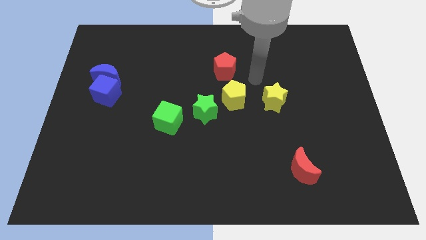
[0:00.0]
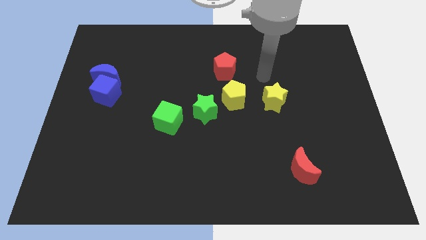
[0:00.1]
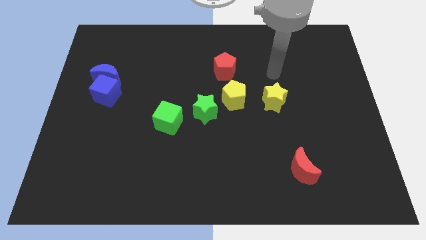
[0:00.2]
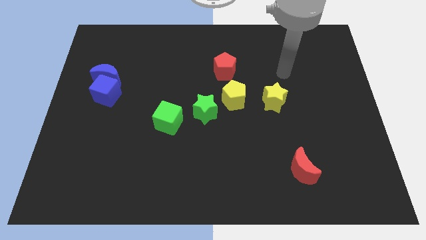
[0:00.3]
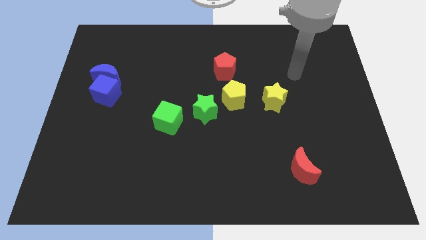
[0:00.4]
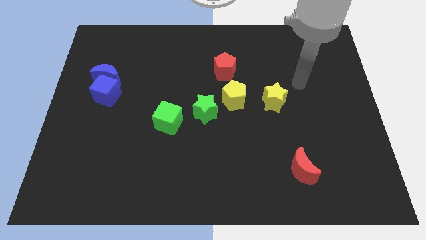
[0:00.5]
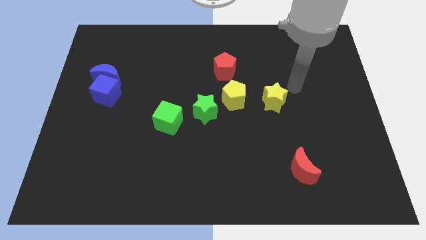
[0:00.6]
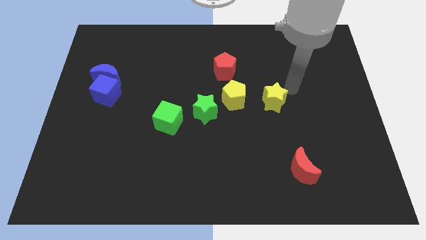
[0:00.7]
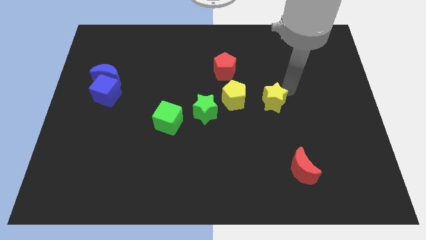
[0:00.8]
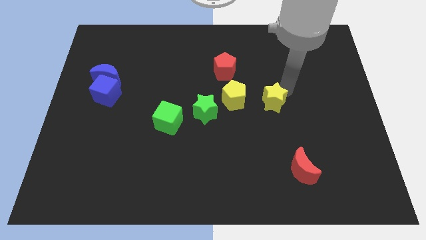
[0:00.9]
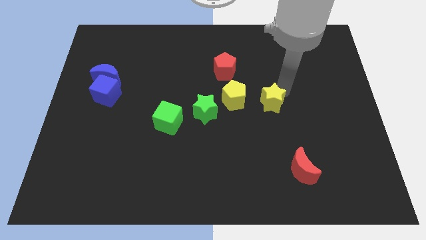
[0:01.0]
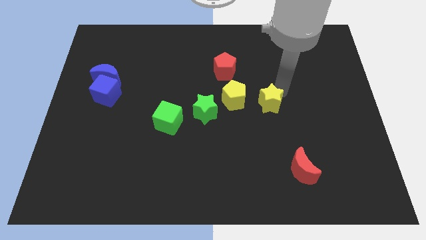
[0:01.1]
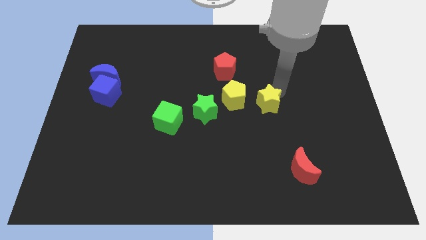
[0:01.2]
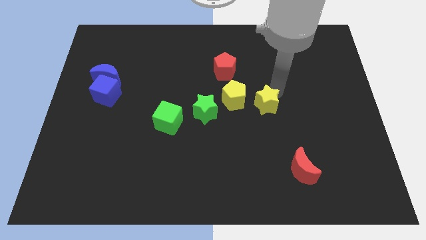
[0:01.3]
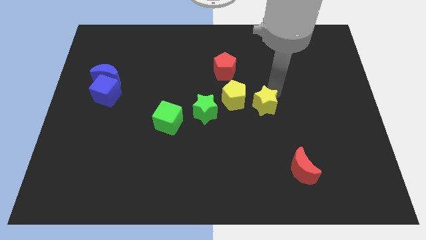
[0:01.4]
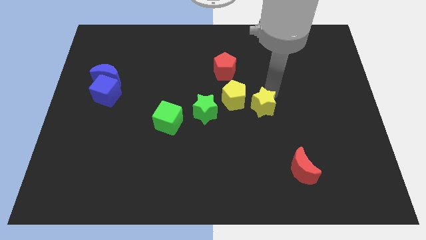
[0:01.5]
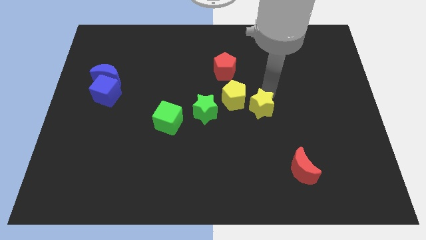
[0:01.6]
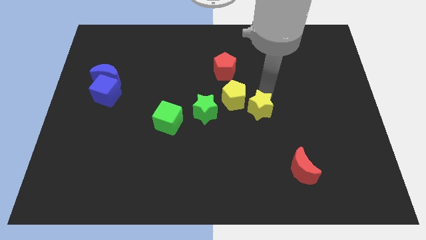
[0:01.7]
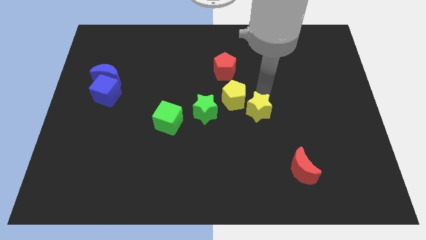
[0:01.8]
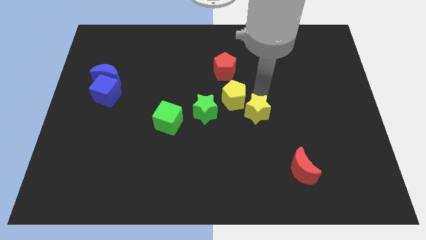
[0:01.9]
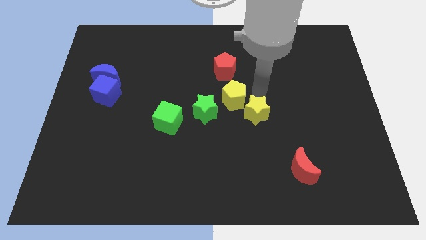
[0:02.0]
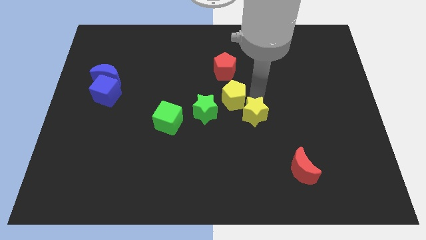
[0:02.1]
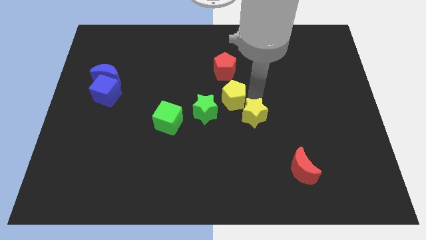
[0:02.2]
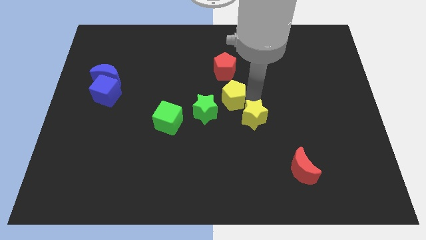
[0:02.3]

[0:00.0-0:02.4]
slightly move the yellow star downwards and then to the left

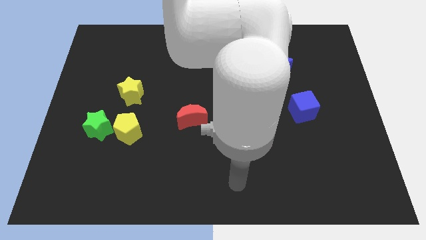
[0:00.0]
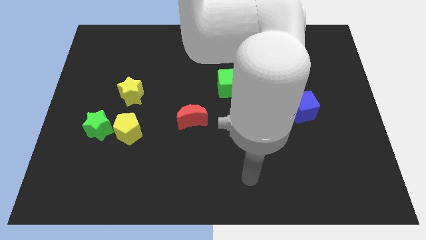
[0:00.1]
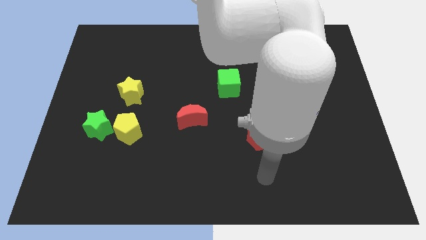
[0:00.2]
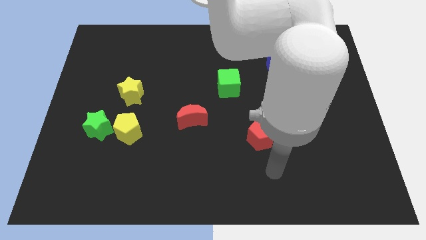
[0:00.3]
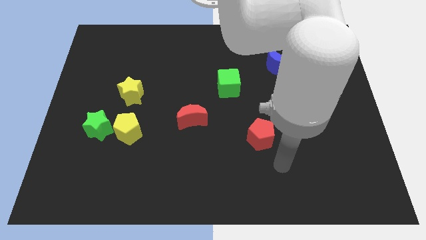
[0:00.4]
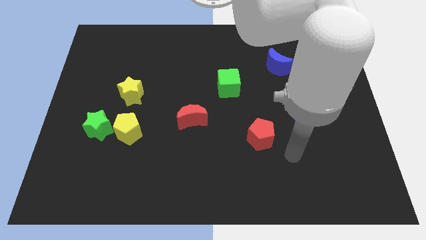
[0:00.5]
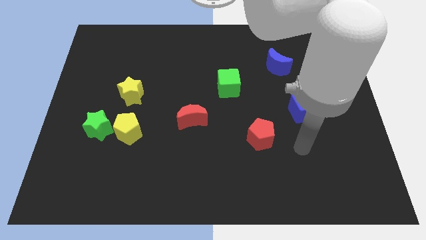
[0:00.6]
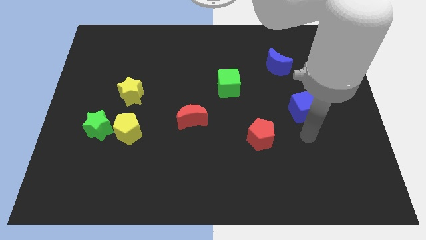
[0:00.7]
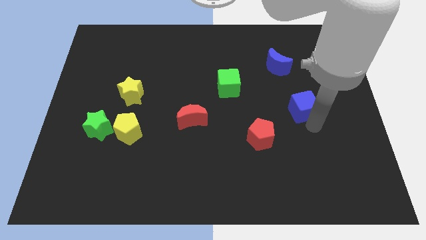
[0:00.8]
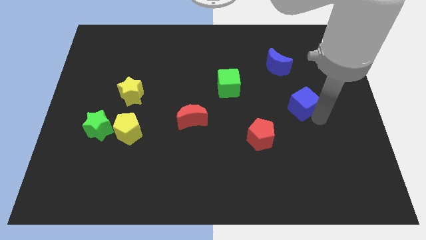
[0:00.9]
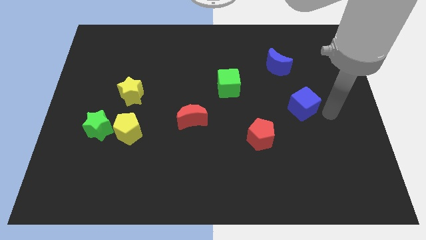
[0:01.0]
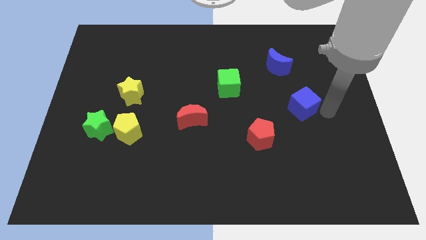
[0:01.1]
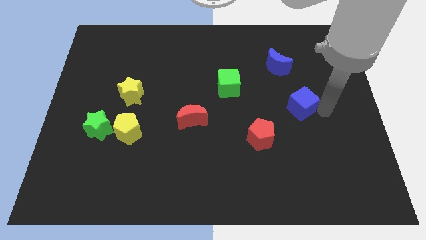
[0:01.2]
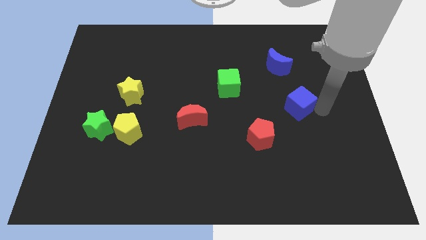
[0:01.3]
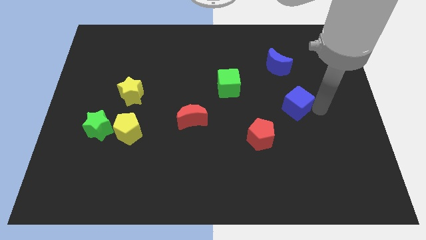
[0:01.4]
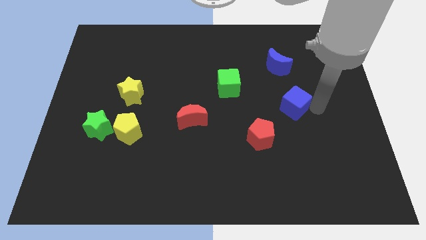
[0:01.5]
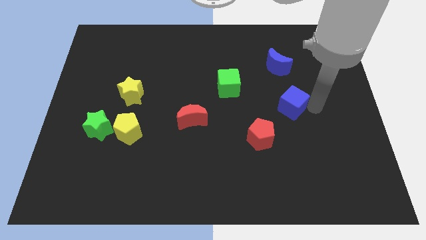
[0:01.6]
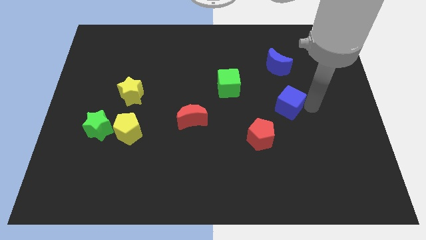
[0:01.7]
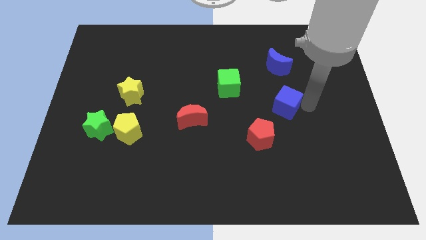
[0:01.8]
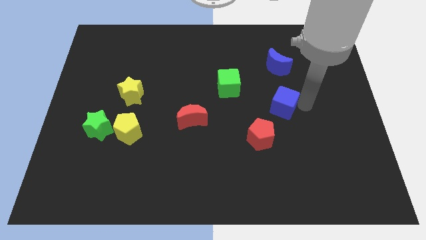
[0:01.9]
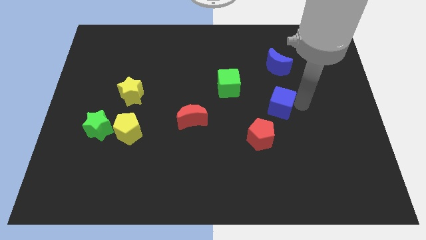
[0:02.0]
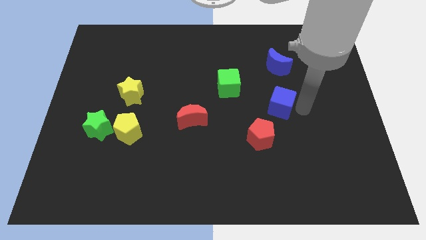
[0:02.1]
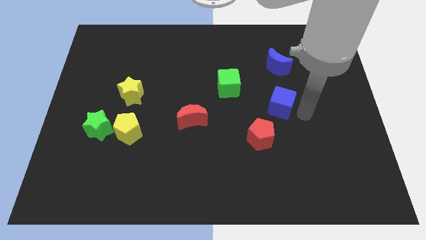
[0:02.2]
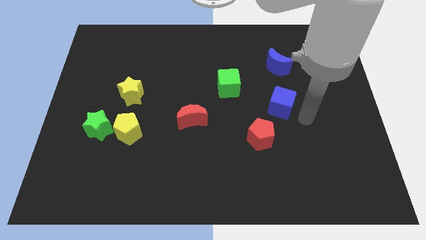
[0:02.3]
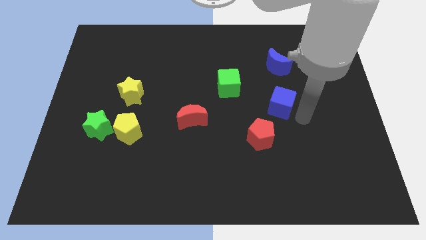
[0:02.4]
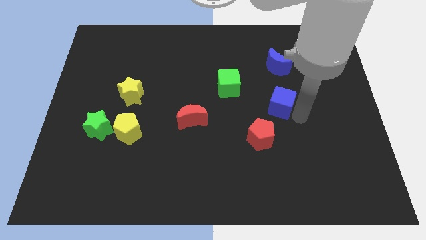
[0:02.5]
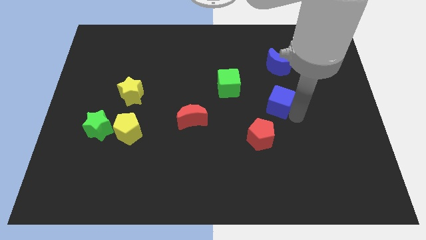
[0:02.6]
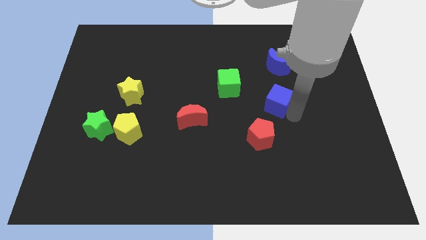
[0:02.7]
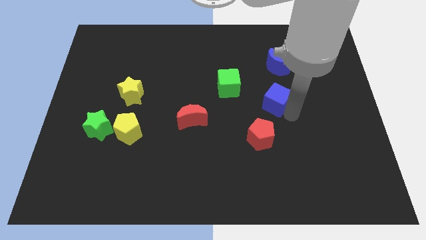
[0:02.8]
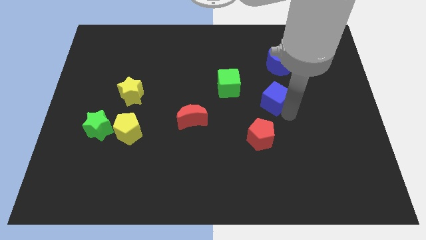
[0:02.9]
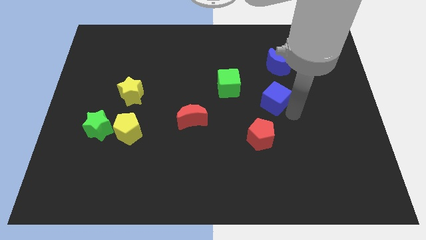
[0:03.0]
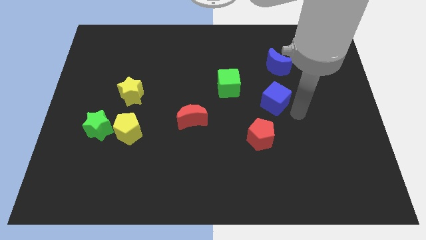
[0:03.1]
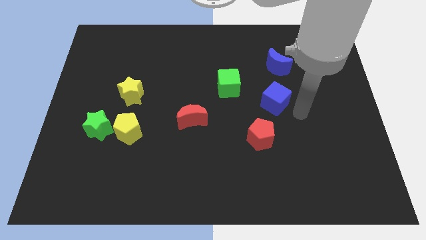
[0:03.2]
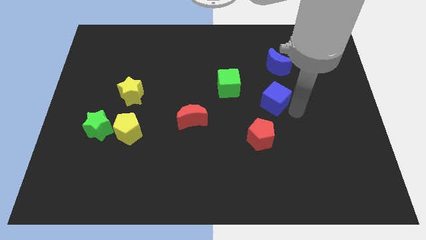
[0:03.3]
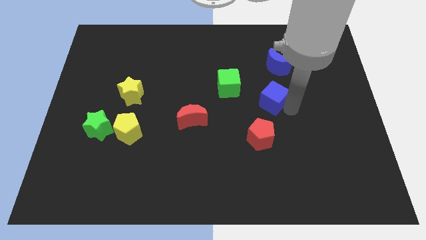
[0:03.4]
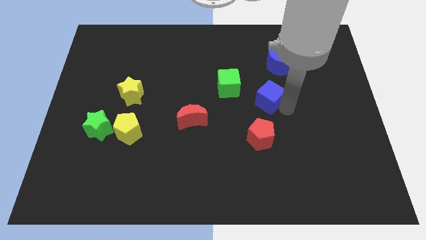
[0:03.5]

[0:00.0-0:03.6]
slightly slide the blue cube upwards and then to the left

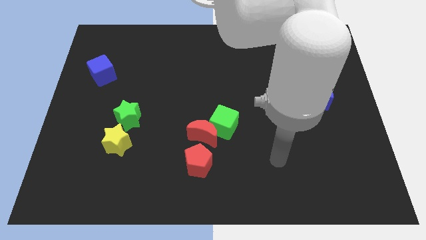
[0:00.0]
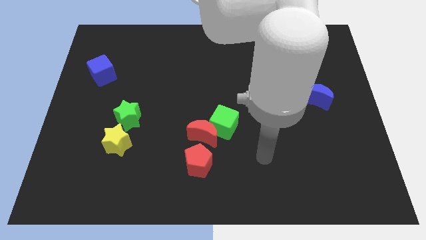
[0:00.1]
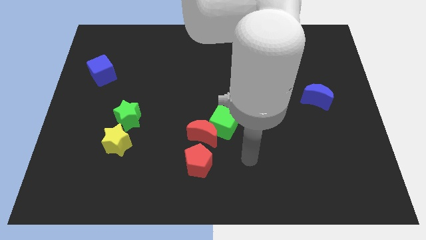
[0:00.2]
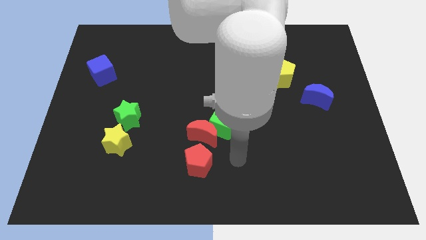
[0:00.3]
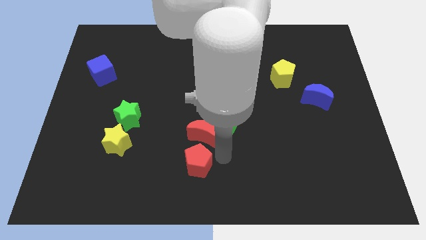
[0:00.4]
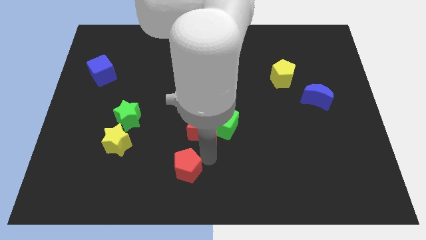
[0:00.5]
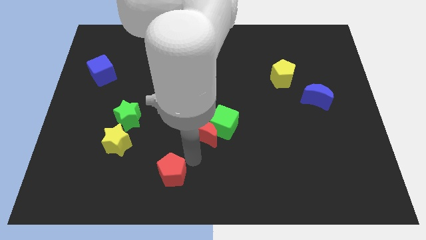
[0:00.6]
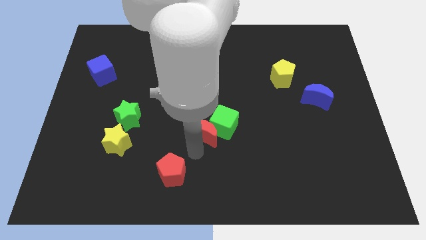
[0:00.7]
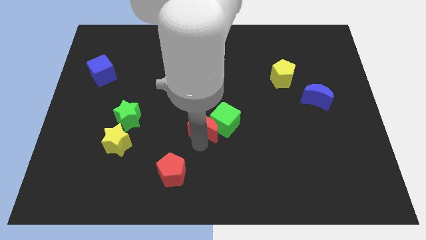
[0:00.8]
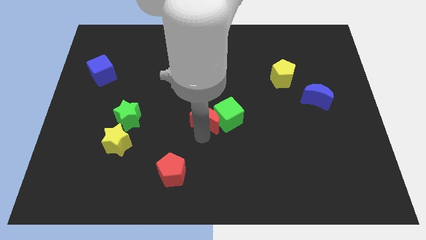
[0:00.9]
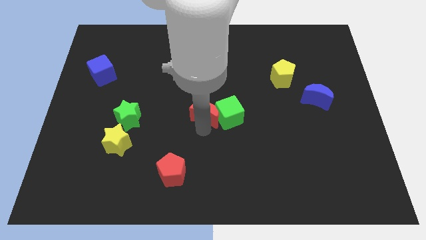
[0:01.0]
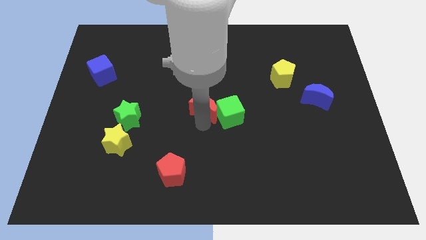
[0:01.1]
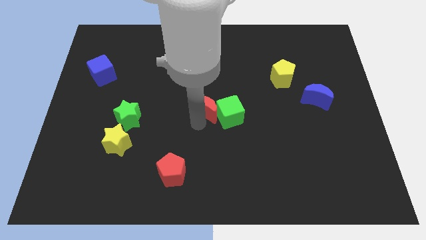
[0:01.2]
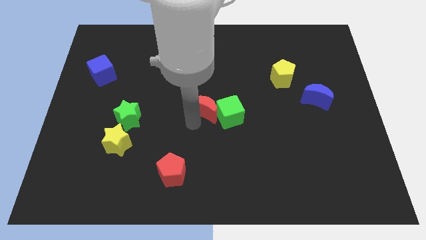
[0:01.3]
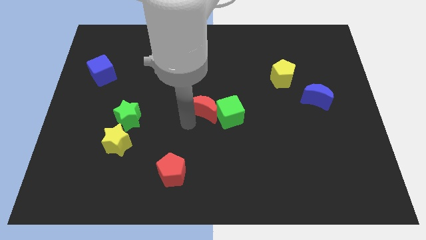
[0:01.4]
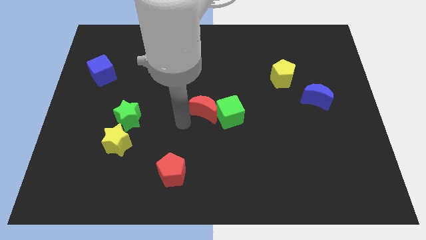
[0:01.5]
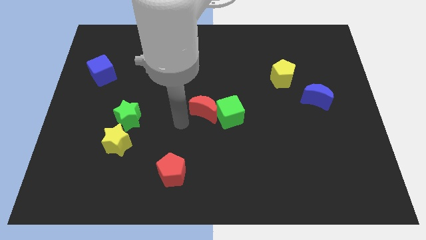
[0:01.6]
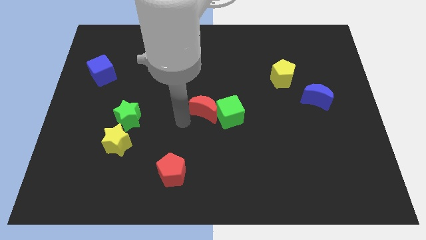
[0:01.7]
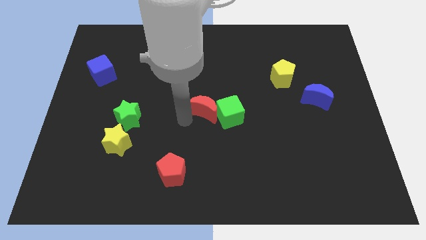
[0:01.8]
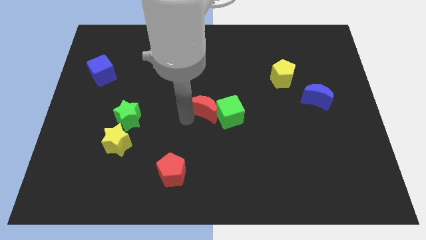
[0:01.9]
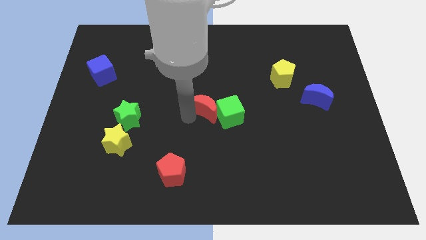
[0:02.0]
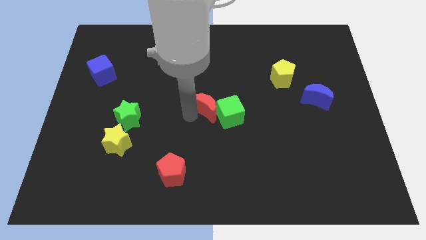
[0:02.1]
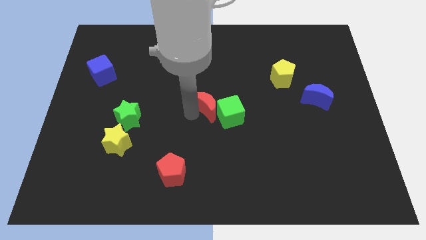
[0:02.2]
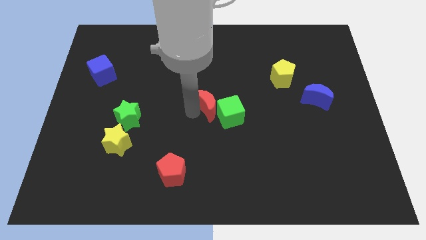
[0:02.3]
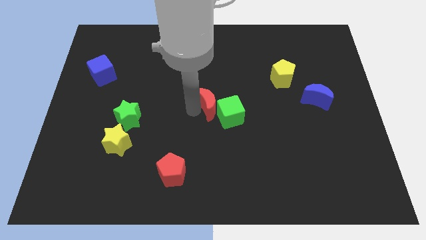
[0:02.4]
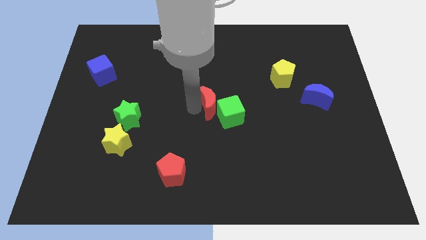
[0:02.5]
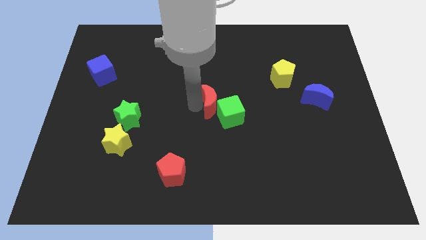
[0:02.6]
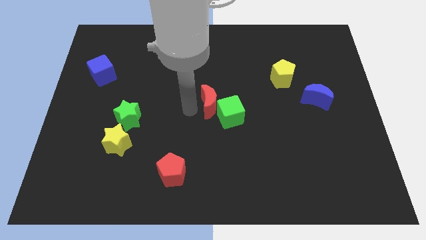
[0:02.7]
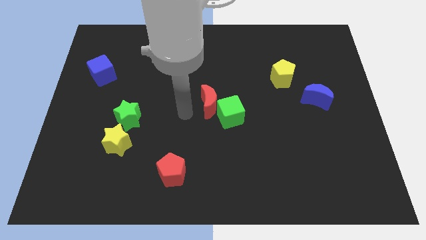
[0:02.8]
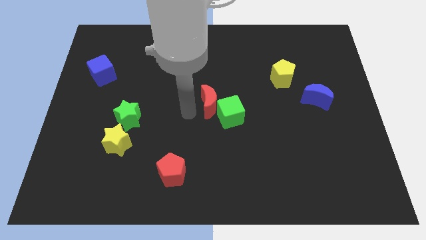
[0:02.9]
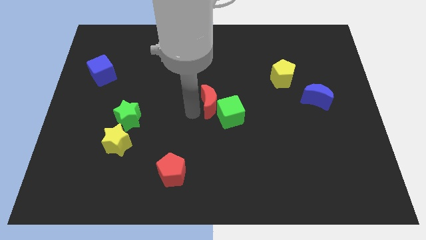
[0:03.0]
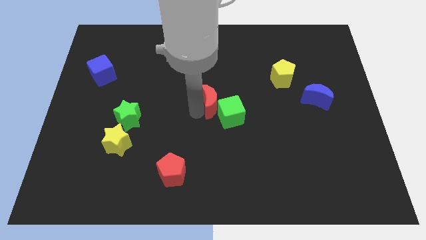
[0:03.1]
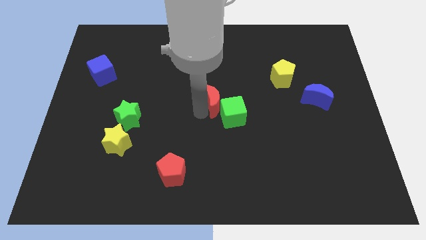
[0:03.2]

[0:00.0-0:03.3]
move the red moon somewhat upwards and to the right
